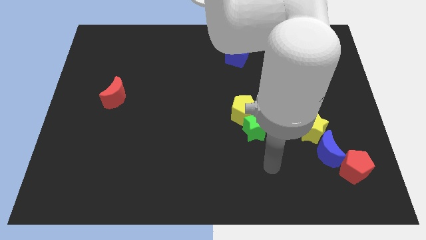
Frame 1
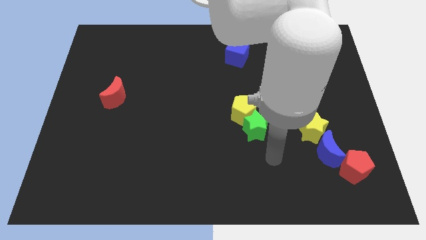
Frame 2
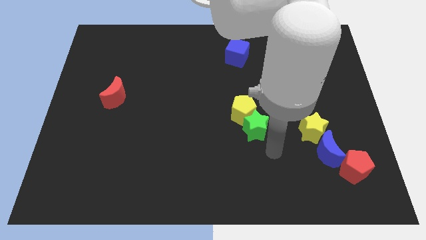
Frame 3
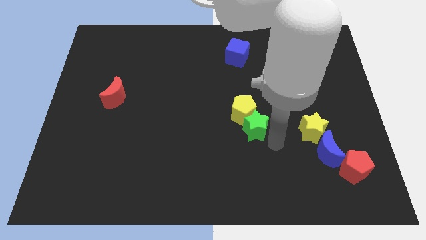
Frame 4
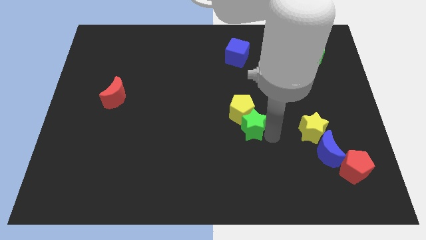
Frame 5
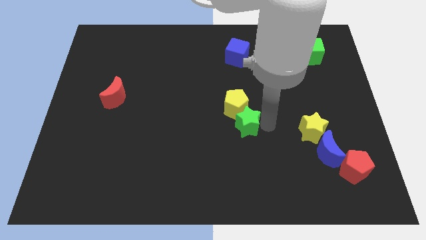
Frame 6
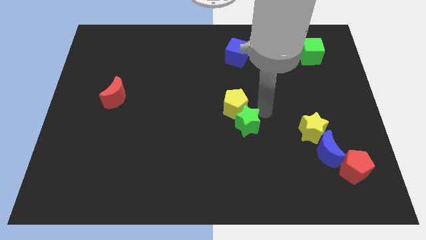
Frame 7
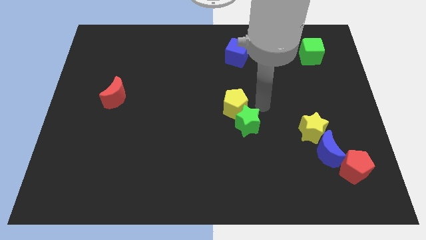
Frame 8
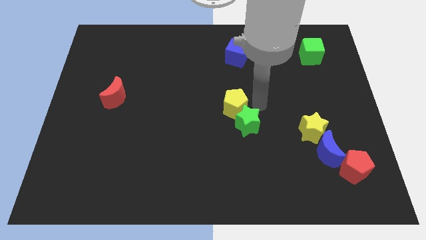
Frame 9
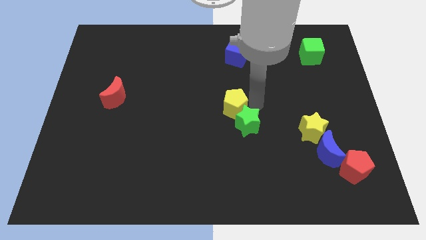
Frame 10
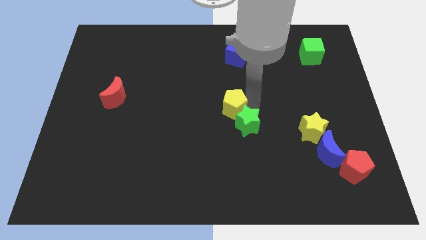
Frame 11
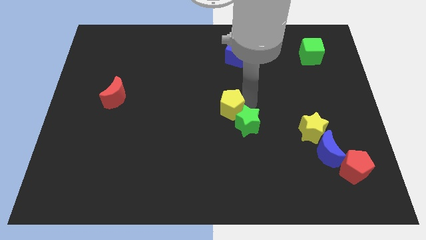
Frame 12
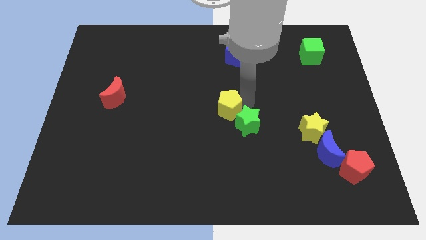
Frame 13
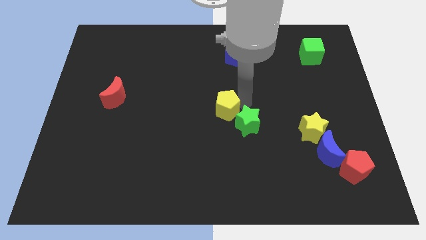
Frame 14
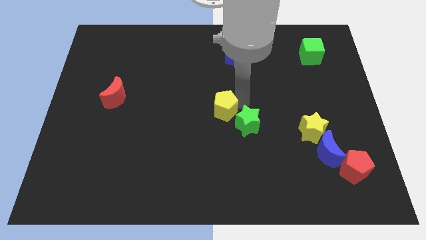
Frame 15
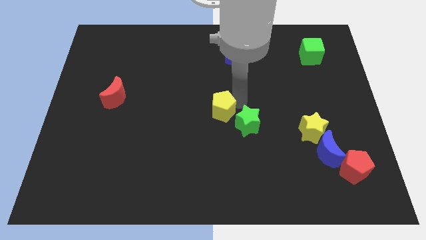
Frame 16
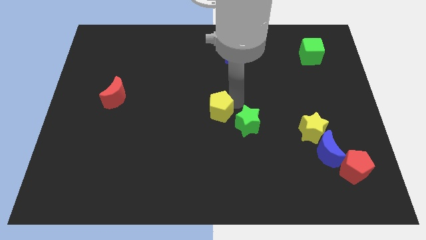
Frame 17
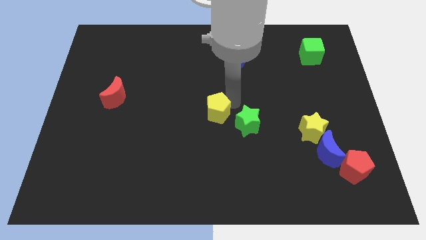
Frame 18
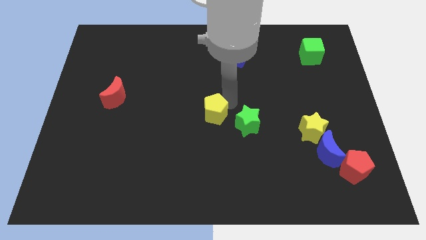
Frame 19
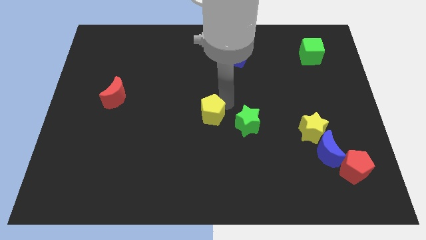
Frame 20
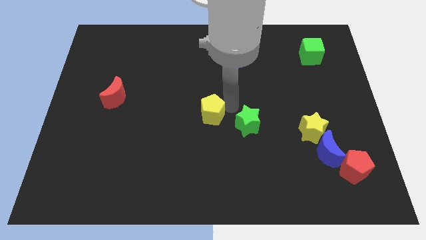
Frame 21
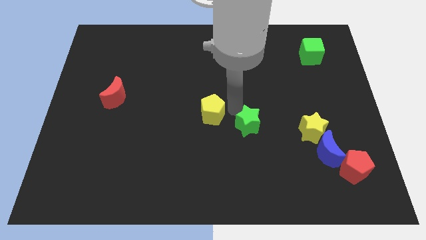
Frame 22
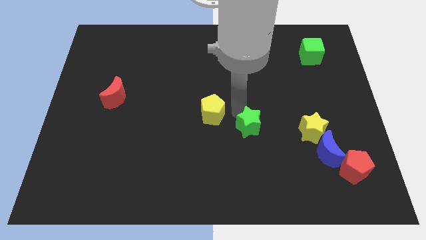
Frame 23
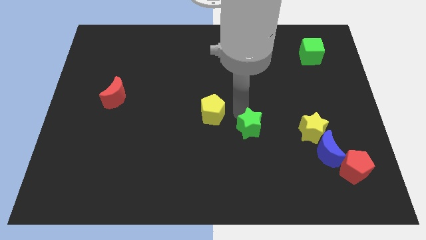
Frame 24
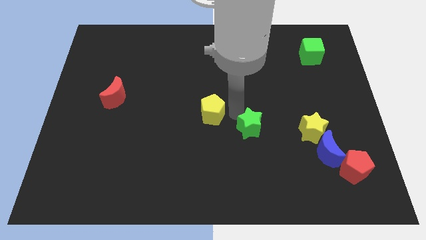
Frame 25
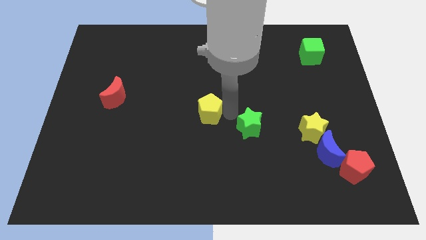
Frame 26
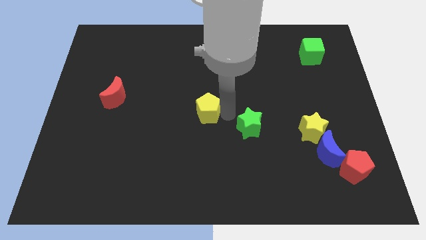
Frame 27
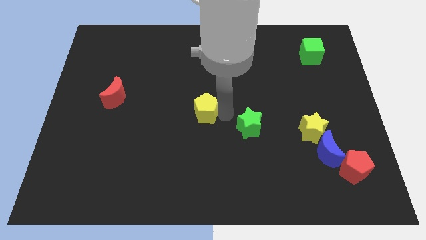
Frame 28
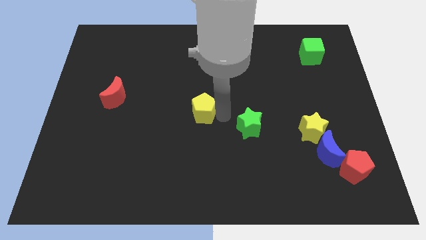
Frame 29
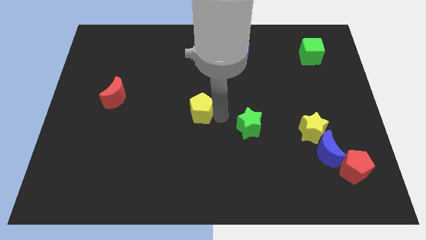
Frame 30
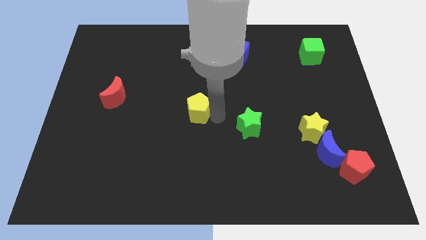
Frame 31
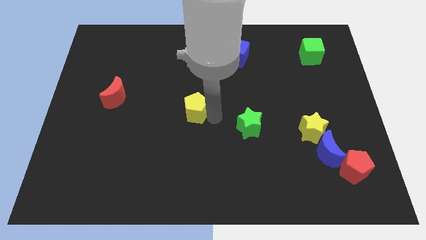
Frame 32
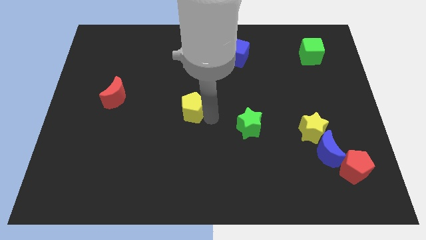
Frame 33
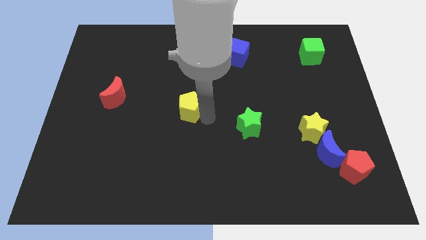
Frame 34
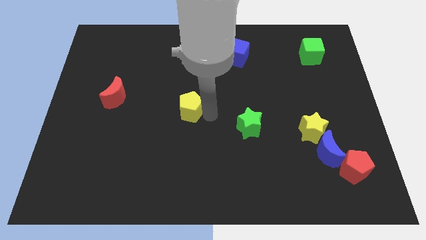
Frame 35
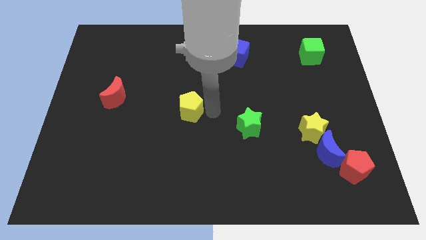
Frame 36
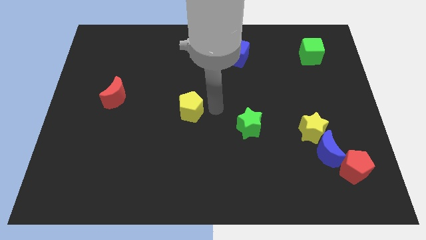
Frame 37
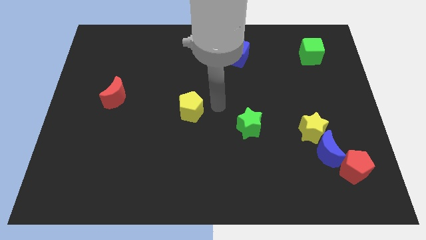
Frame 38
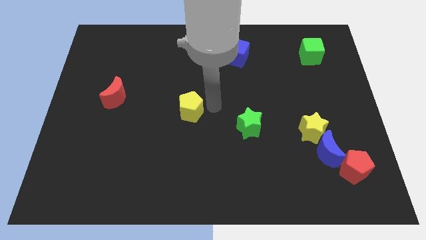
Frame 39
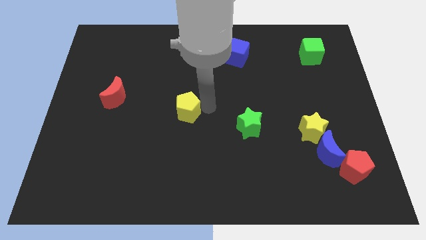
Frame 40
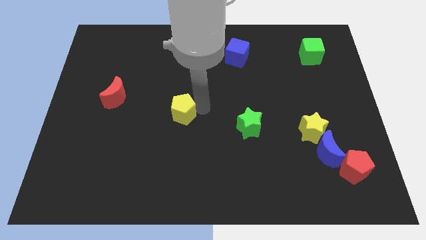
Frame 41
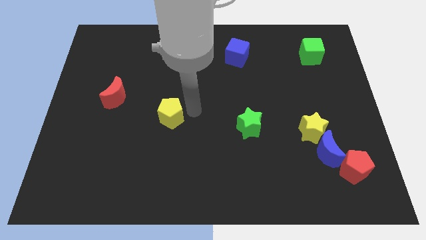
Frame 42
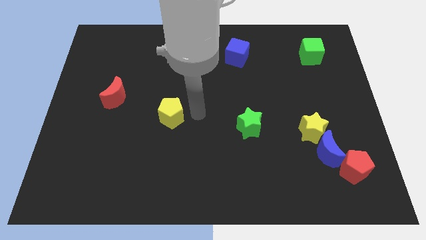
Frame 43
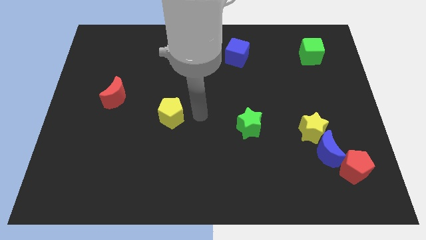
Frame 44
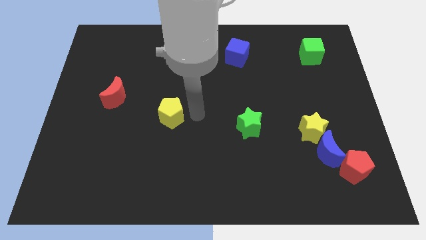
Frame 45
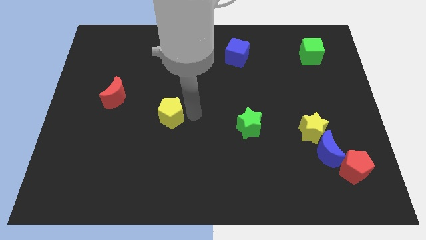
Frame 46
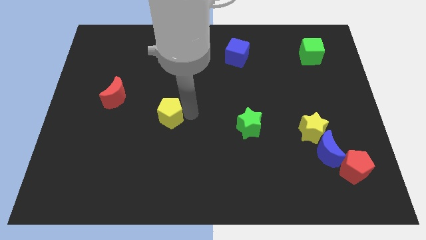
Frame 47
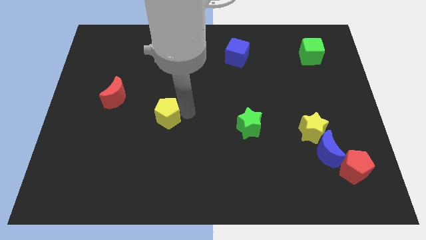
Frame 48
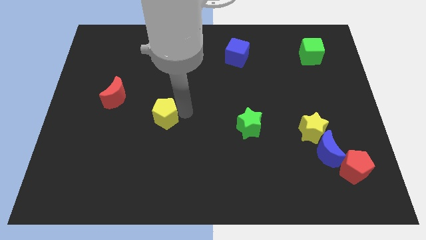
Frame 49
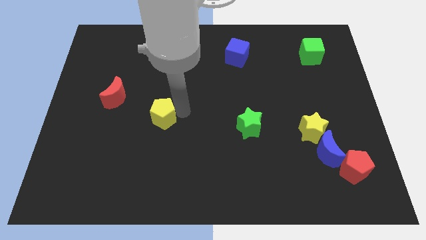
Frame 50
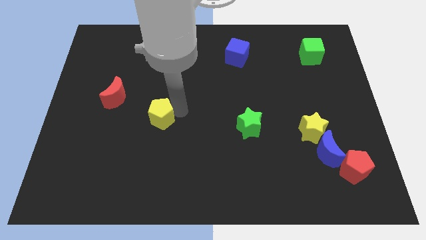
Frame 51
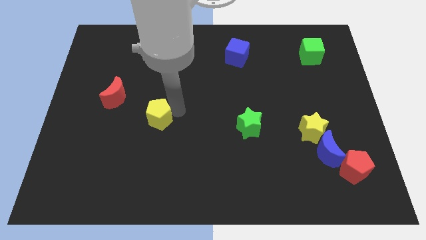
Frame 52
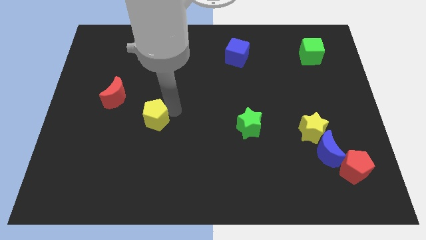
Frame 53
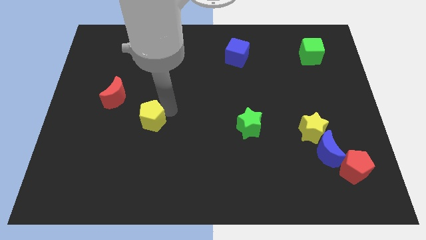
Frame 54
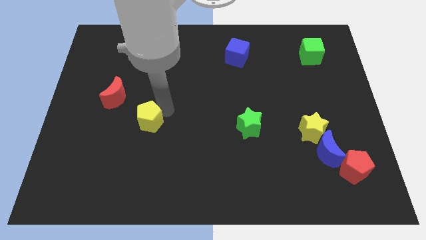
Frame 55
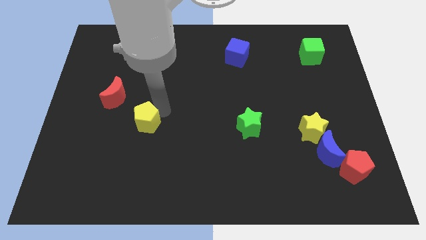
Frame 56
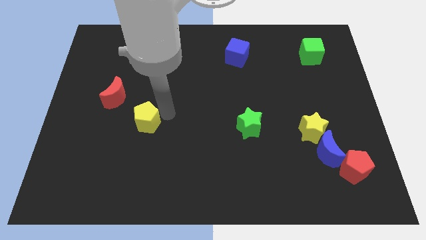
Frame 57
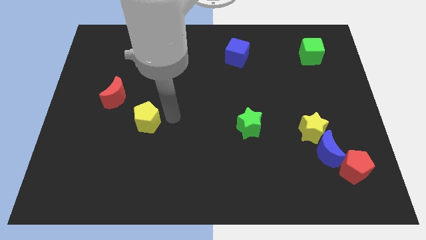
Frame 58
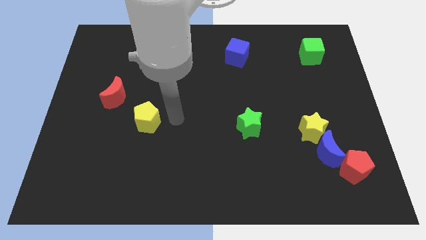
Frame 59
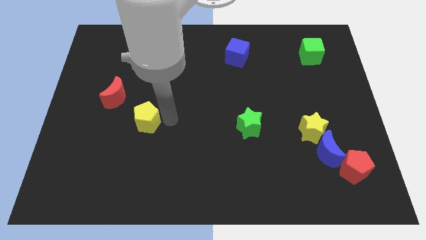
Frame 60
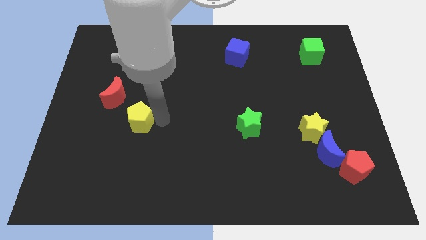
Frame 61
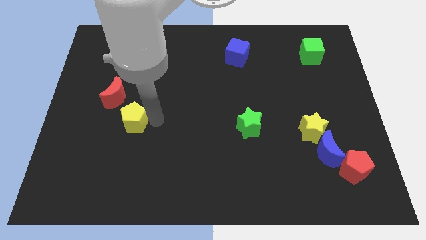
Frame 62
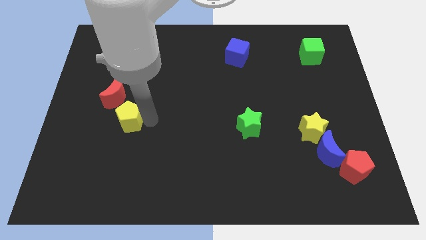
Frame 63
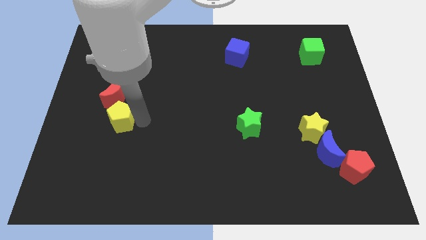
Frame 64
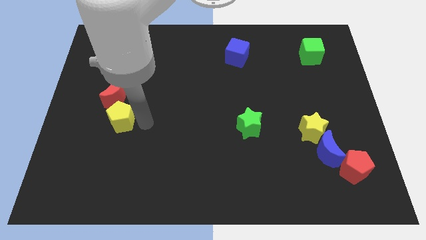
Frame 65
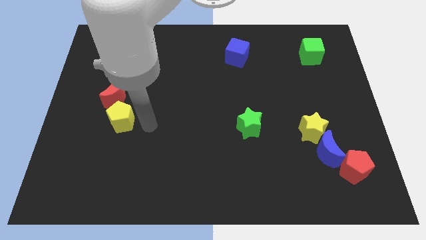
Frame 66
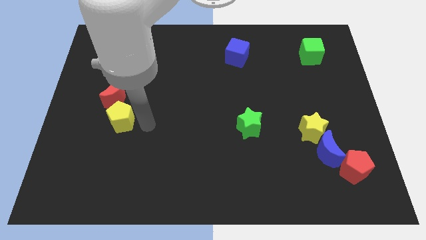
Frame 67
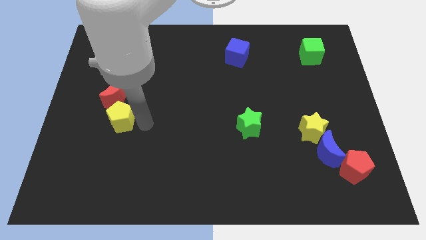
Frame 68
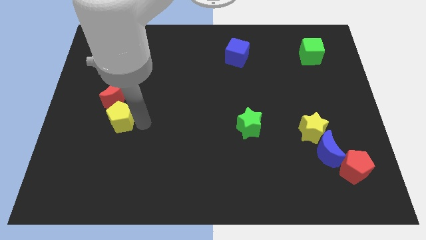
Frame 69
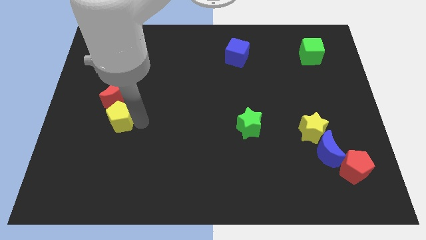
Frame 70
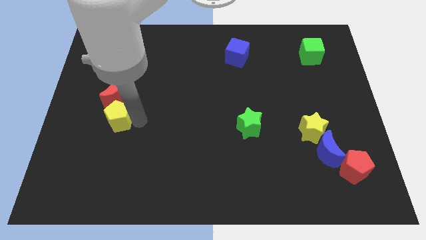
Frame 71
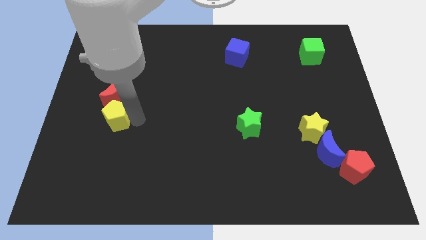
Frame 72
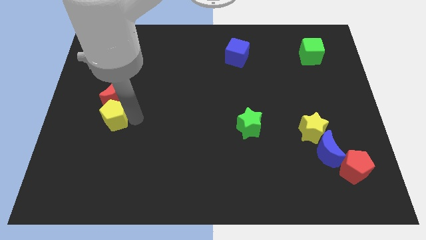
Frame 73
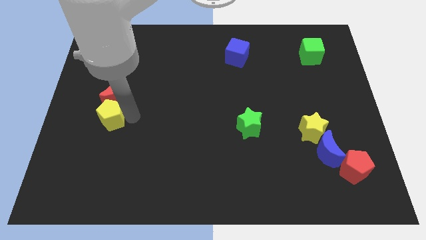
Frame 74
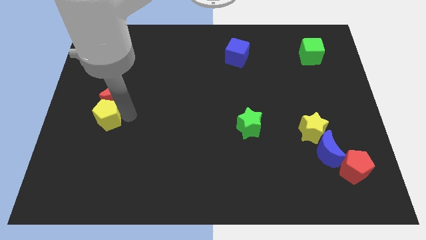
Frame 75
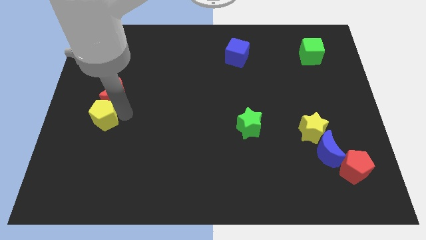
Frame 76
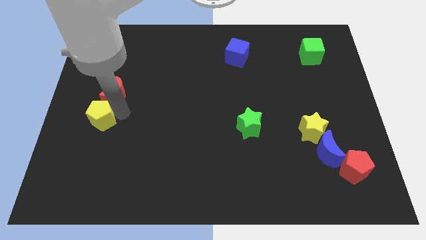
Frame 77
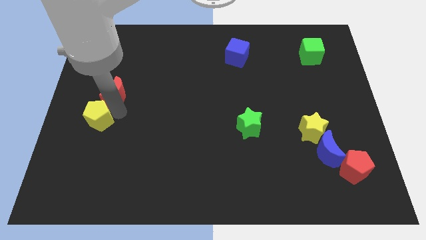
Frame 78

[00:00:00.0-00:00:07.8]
move the yellow pentagon to the center left

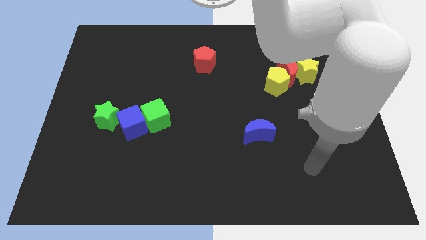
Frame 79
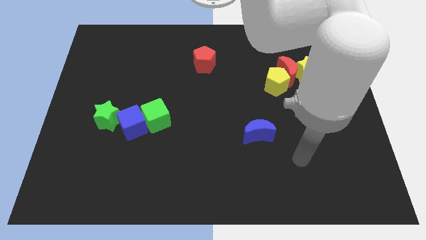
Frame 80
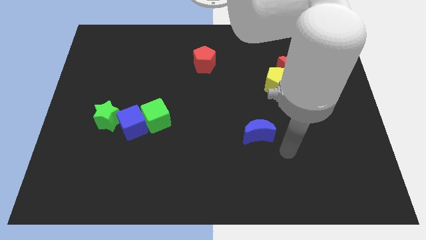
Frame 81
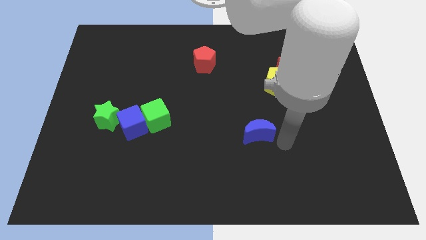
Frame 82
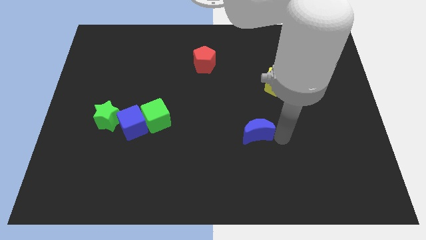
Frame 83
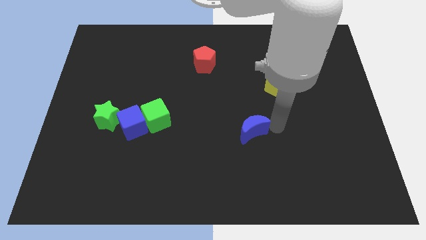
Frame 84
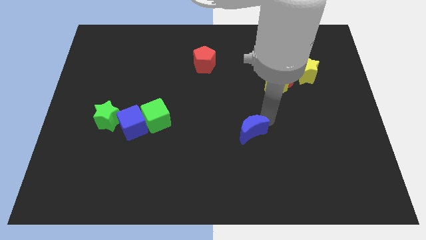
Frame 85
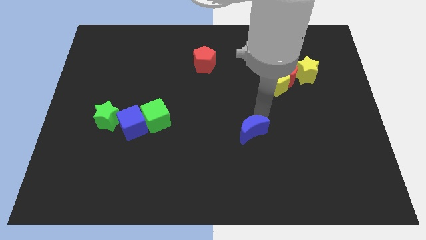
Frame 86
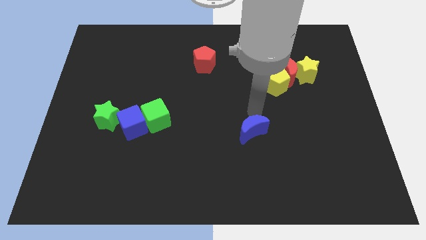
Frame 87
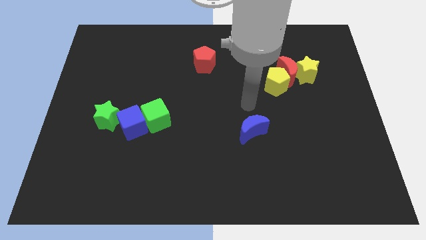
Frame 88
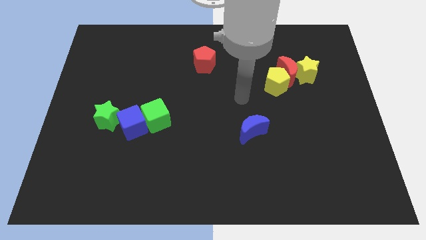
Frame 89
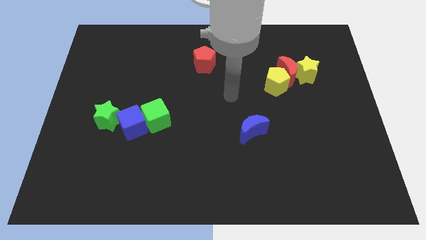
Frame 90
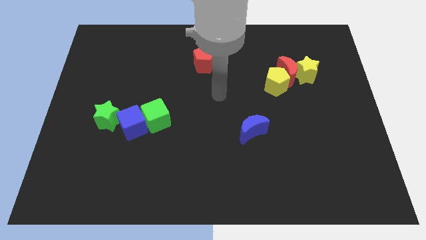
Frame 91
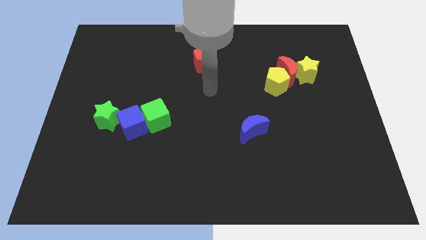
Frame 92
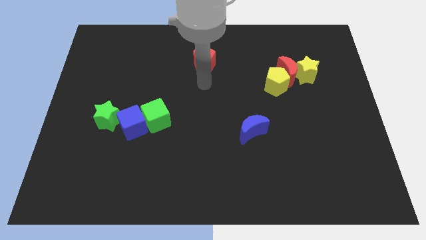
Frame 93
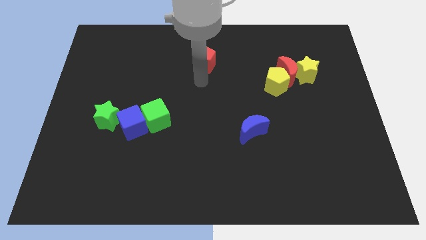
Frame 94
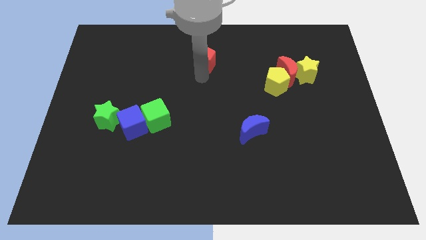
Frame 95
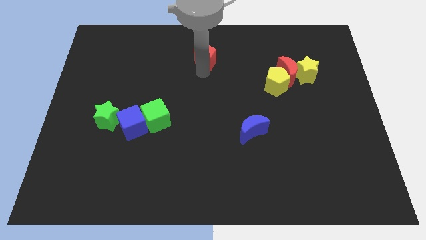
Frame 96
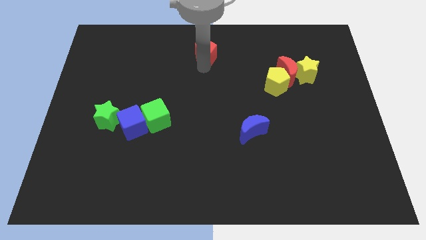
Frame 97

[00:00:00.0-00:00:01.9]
push the red pentagon to the top side
